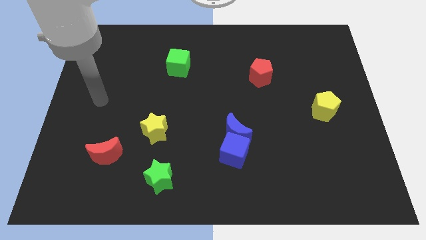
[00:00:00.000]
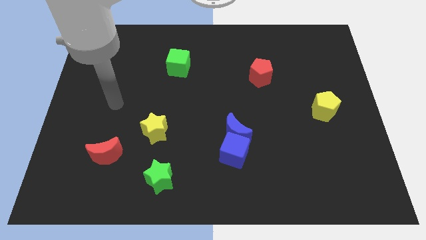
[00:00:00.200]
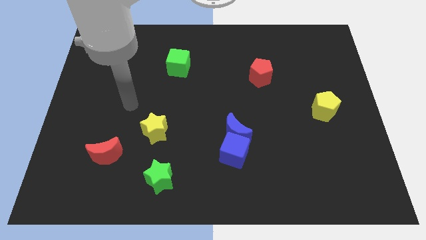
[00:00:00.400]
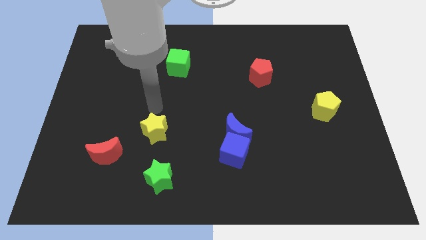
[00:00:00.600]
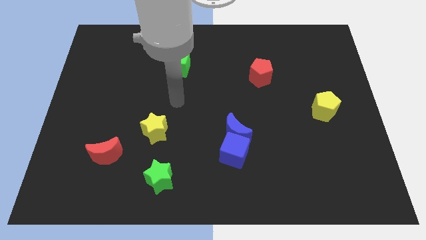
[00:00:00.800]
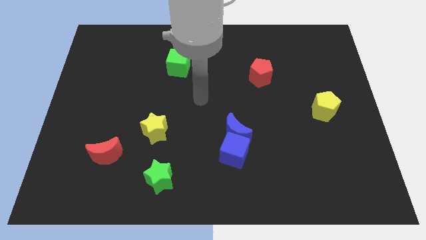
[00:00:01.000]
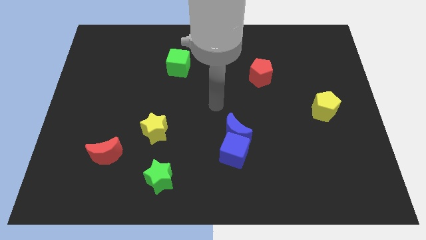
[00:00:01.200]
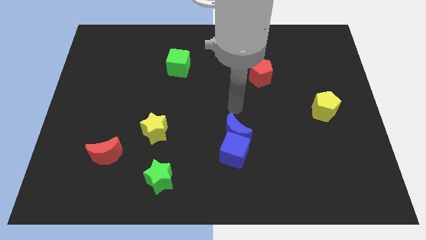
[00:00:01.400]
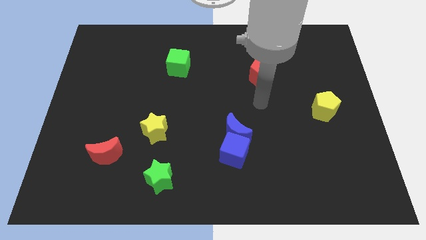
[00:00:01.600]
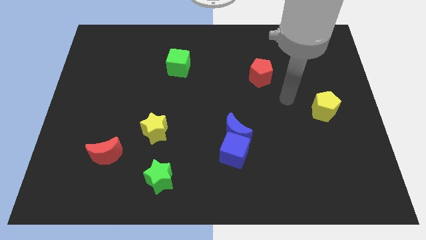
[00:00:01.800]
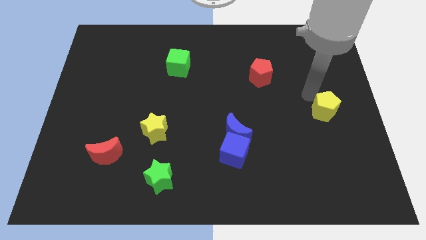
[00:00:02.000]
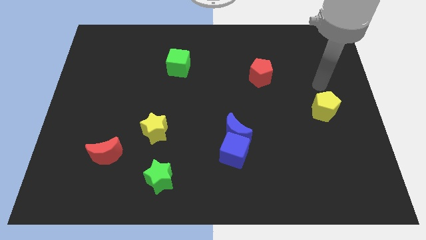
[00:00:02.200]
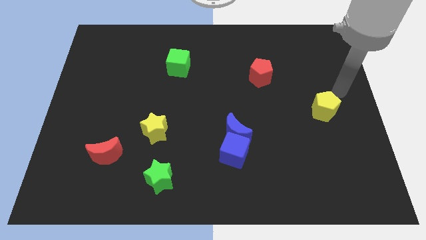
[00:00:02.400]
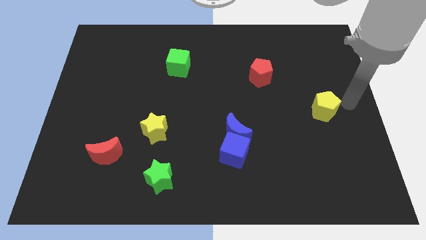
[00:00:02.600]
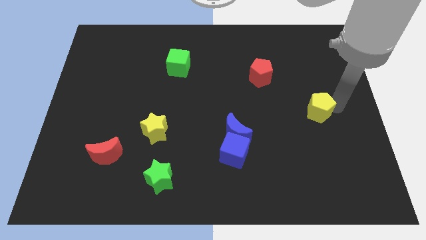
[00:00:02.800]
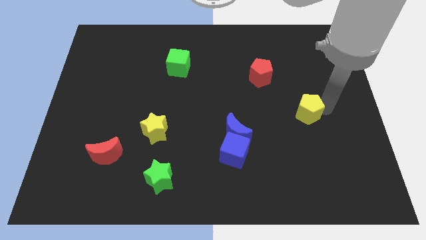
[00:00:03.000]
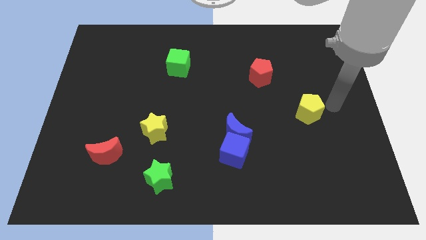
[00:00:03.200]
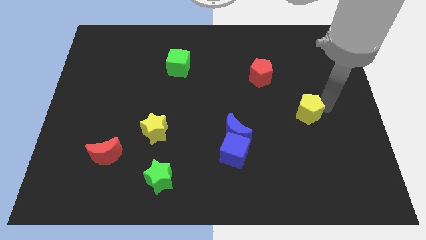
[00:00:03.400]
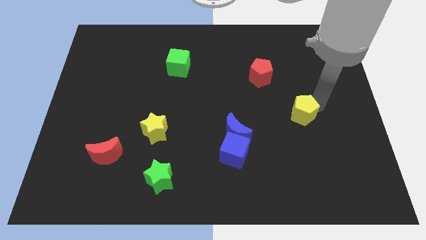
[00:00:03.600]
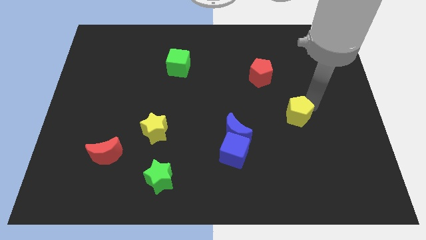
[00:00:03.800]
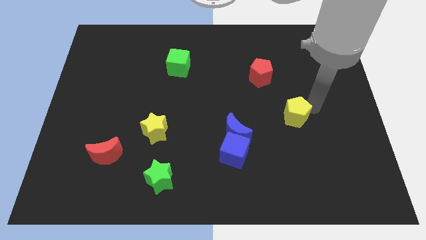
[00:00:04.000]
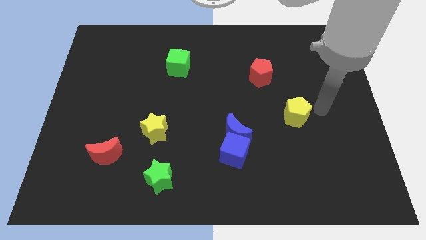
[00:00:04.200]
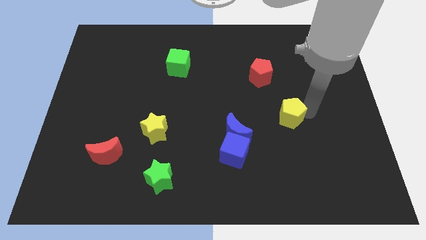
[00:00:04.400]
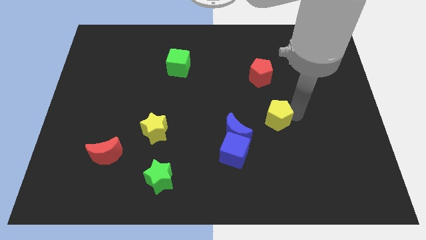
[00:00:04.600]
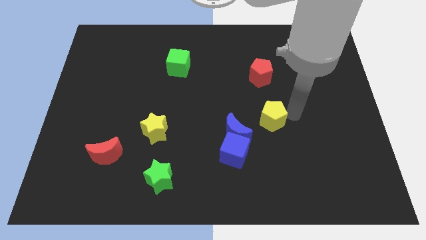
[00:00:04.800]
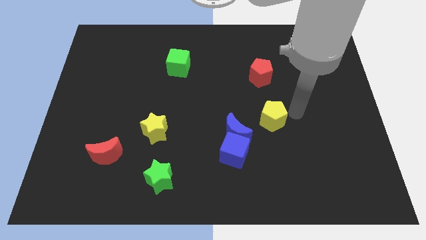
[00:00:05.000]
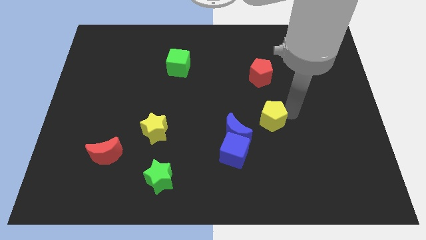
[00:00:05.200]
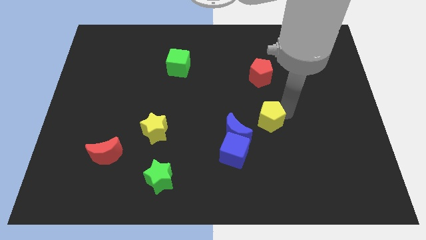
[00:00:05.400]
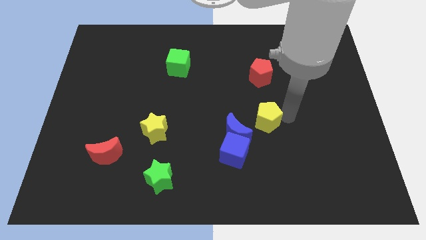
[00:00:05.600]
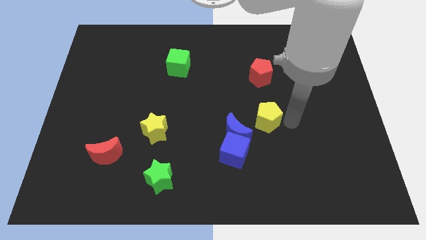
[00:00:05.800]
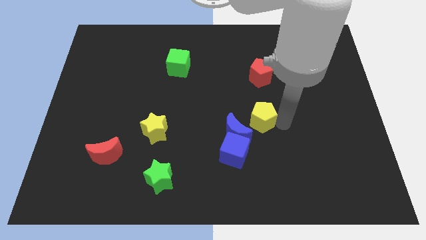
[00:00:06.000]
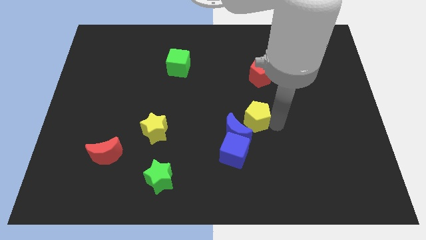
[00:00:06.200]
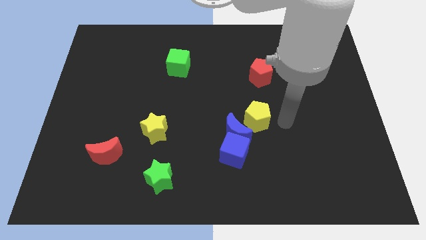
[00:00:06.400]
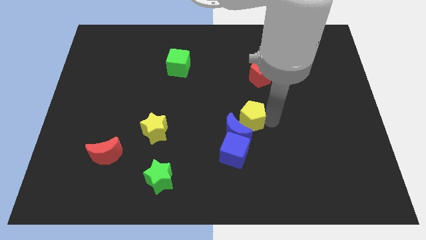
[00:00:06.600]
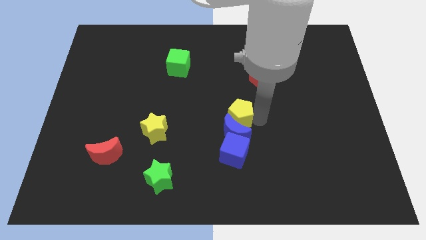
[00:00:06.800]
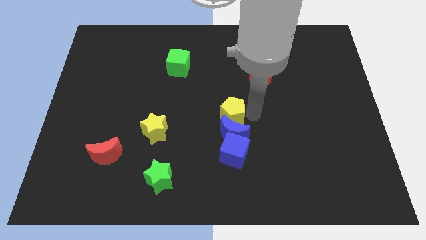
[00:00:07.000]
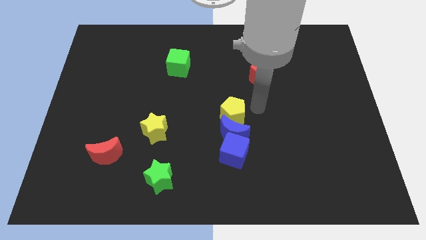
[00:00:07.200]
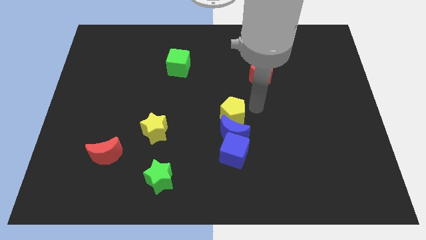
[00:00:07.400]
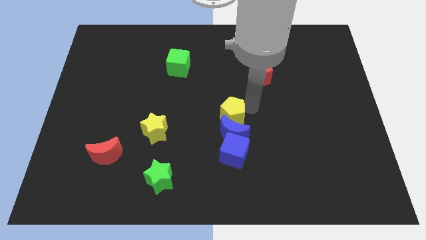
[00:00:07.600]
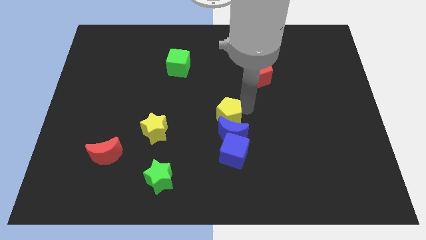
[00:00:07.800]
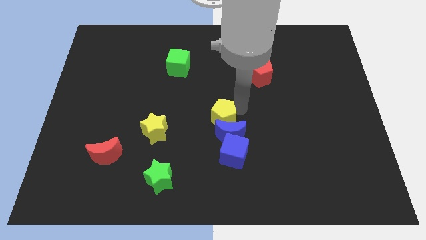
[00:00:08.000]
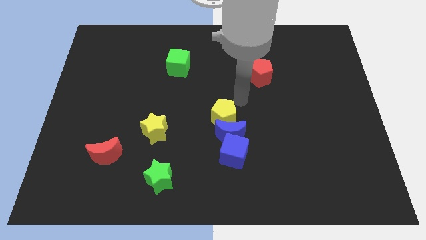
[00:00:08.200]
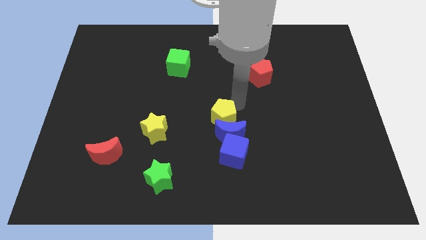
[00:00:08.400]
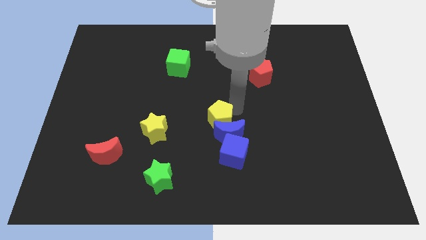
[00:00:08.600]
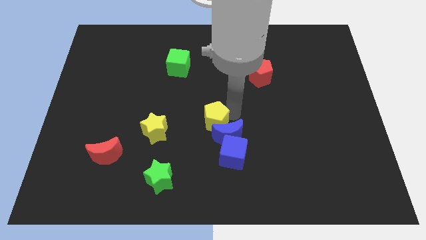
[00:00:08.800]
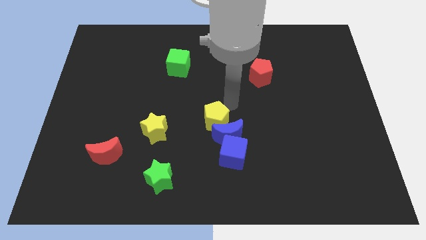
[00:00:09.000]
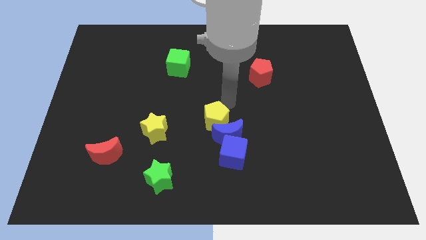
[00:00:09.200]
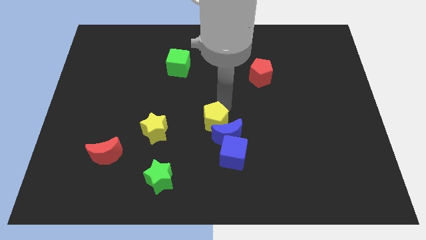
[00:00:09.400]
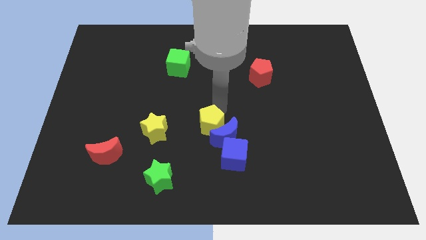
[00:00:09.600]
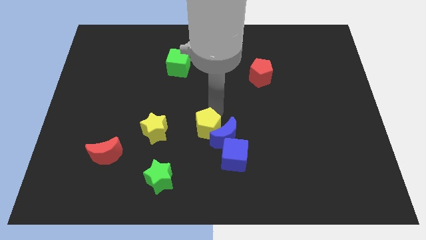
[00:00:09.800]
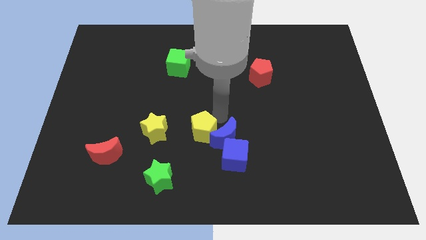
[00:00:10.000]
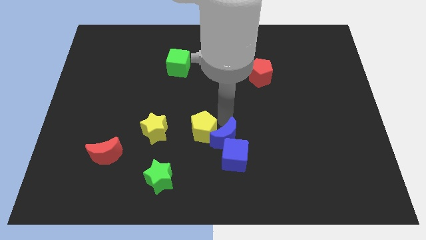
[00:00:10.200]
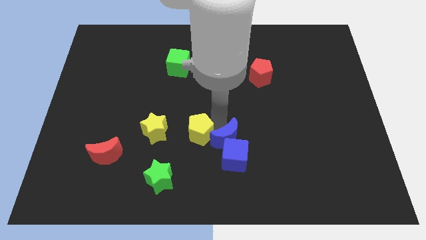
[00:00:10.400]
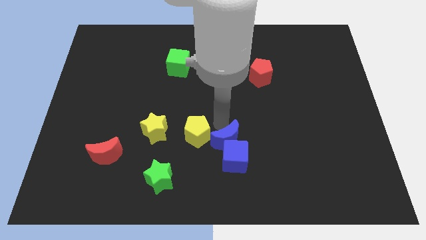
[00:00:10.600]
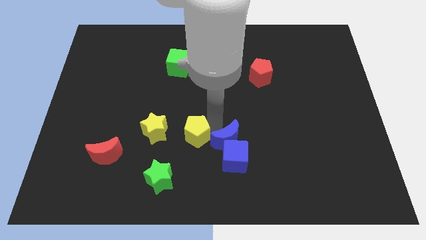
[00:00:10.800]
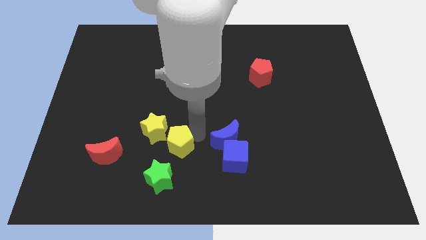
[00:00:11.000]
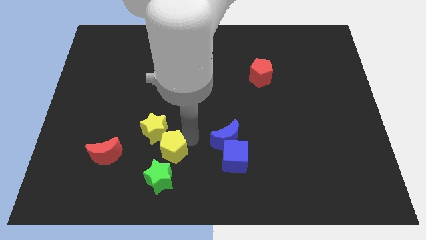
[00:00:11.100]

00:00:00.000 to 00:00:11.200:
push the yellow pentagon to the right of the red moon

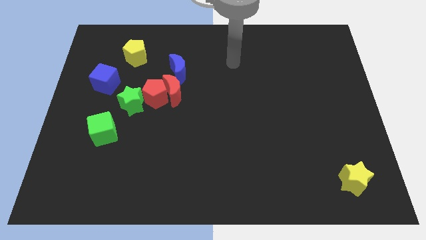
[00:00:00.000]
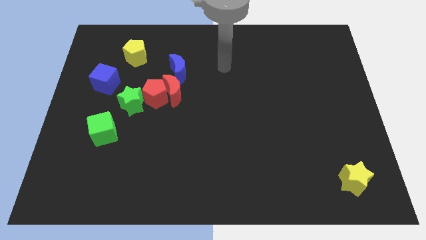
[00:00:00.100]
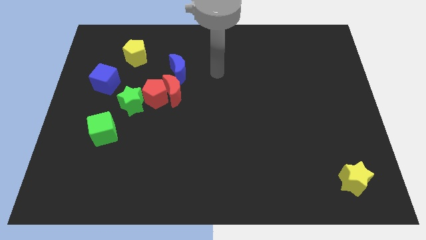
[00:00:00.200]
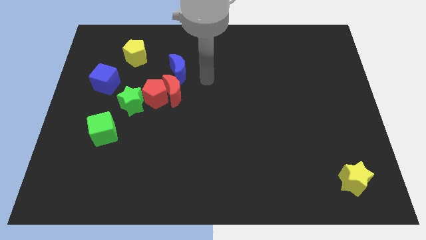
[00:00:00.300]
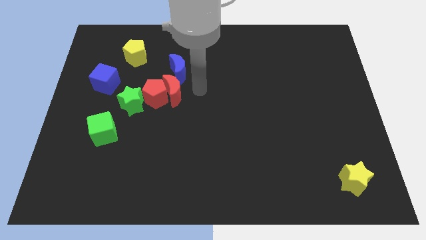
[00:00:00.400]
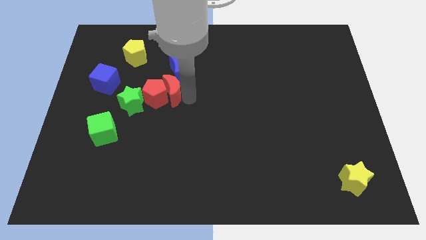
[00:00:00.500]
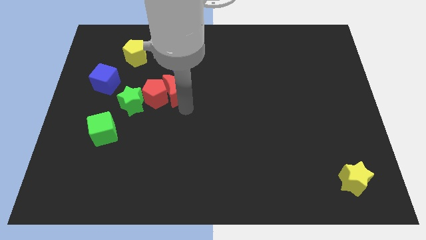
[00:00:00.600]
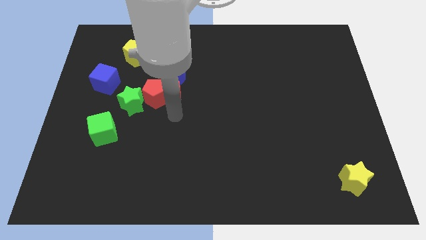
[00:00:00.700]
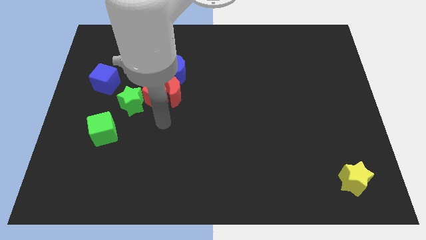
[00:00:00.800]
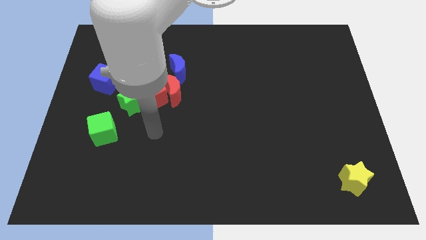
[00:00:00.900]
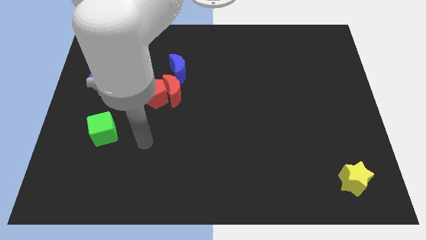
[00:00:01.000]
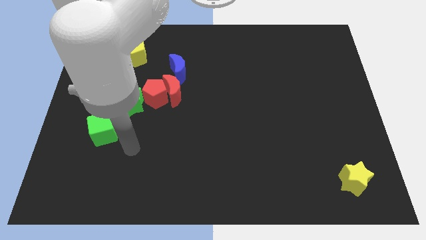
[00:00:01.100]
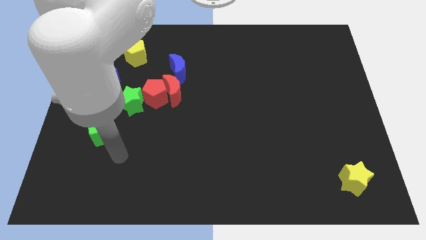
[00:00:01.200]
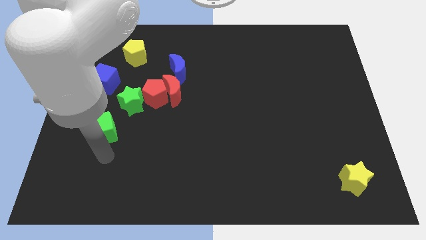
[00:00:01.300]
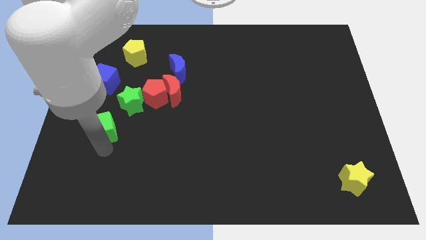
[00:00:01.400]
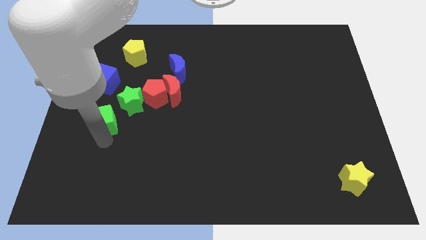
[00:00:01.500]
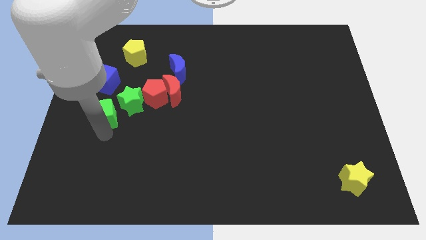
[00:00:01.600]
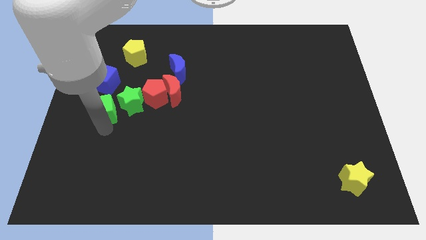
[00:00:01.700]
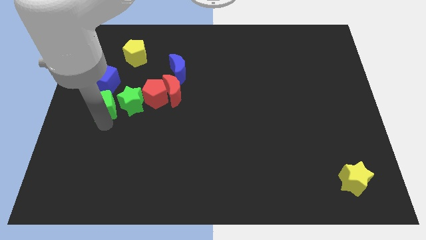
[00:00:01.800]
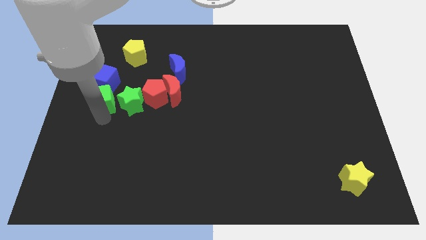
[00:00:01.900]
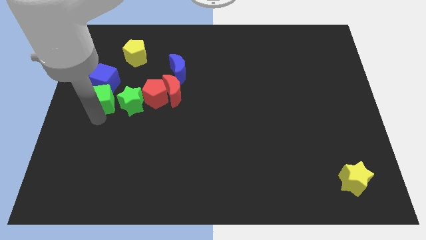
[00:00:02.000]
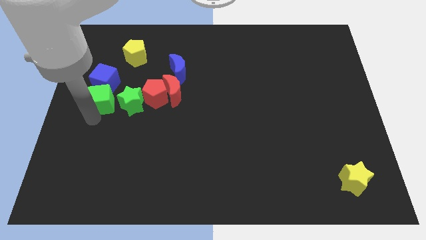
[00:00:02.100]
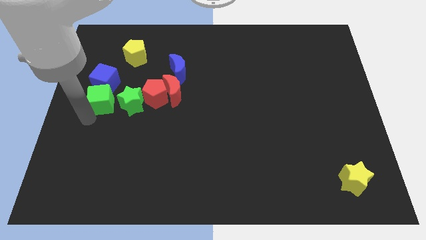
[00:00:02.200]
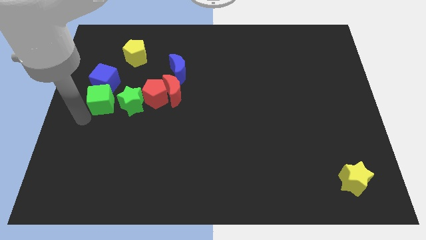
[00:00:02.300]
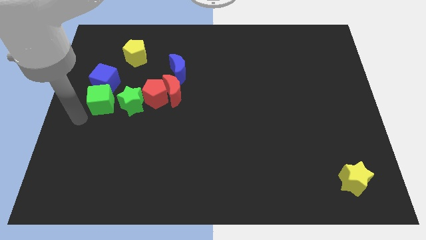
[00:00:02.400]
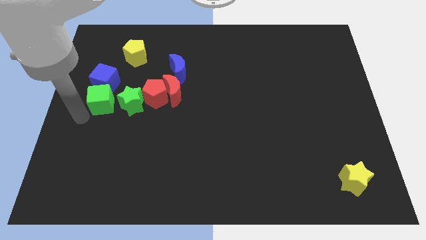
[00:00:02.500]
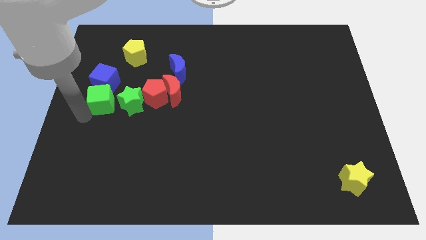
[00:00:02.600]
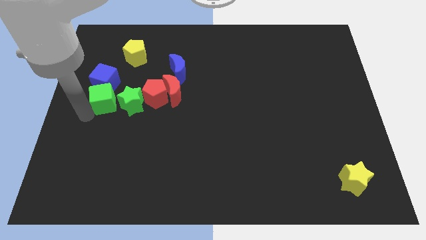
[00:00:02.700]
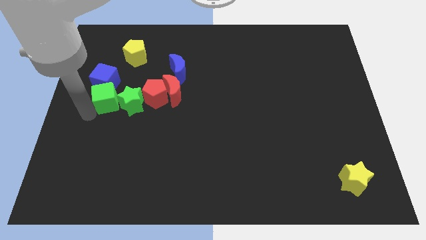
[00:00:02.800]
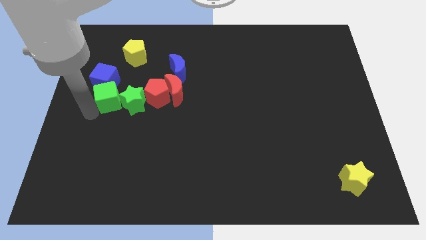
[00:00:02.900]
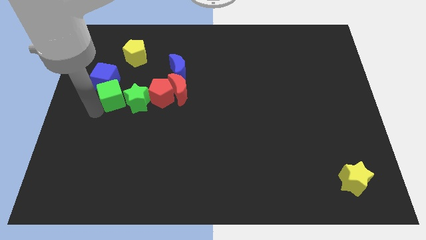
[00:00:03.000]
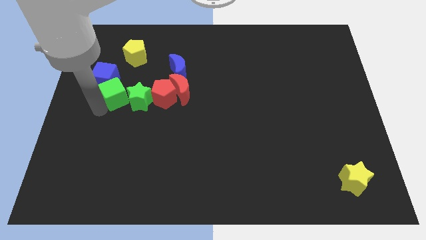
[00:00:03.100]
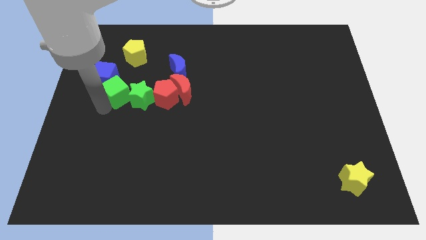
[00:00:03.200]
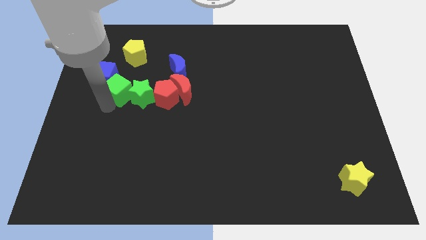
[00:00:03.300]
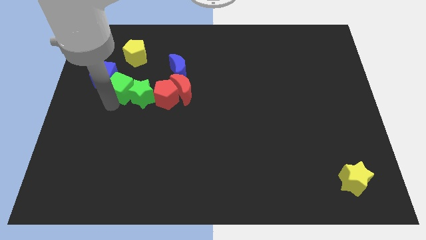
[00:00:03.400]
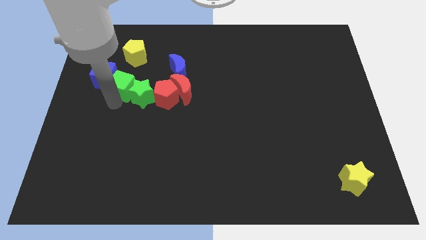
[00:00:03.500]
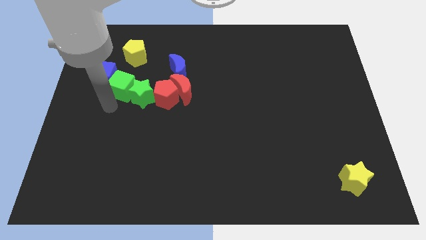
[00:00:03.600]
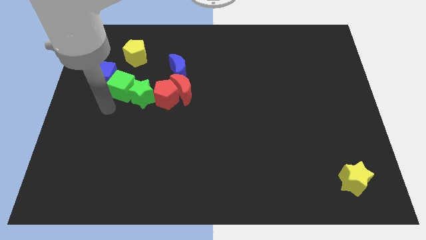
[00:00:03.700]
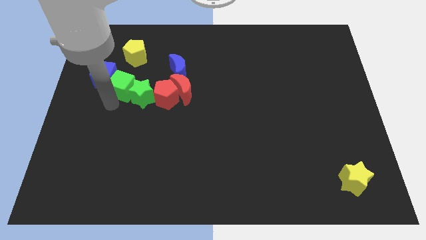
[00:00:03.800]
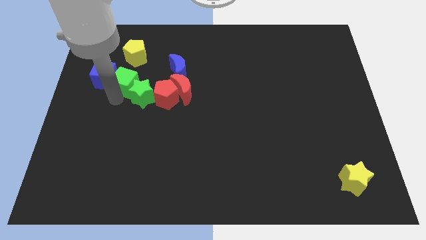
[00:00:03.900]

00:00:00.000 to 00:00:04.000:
move the green cube to the left of the blue moon
